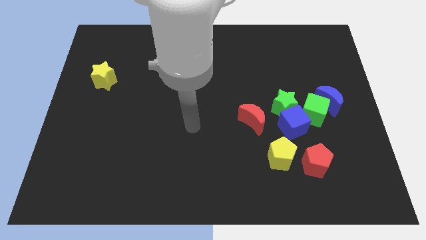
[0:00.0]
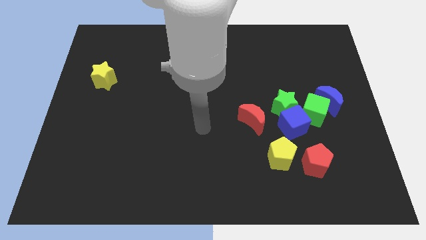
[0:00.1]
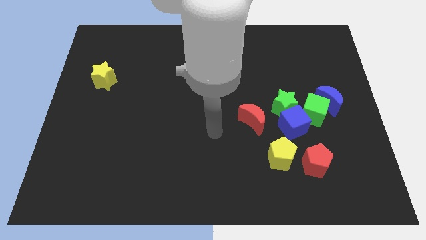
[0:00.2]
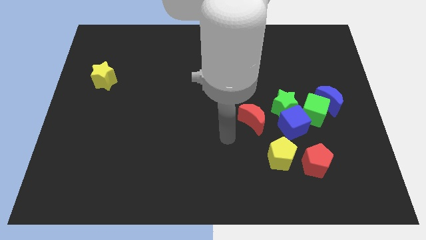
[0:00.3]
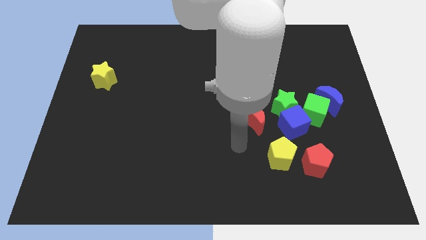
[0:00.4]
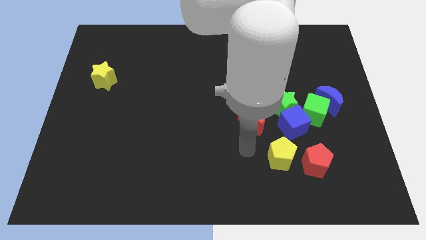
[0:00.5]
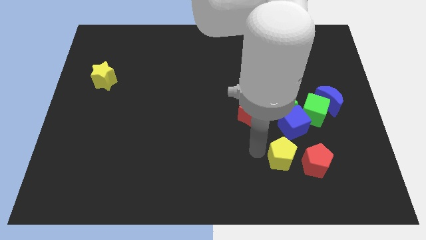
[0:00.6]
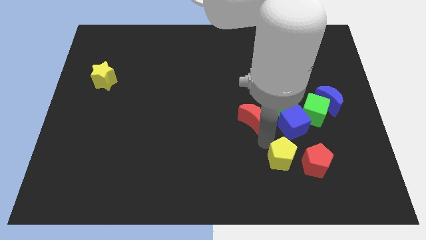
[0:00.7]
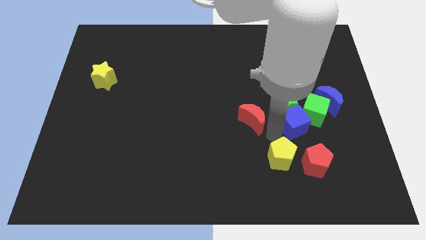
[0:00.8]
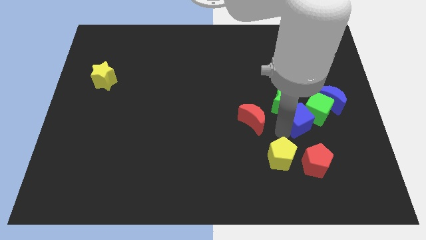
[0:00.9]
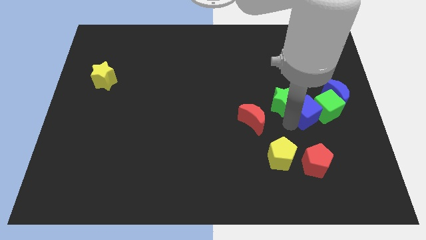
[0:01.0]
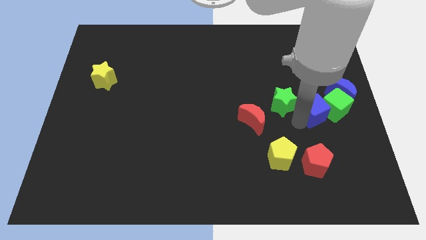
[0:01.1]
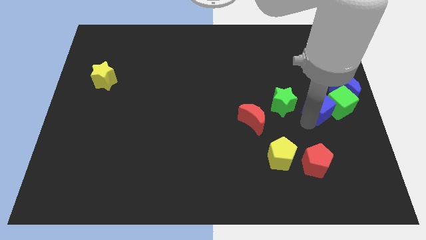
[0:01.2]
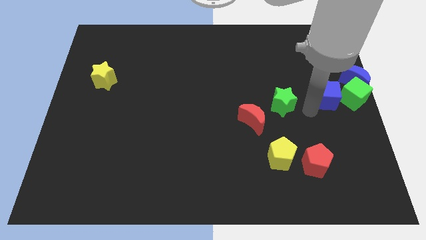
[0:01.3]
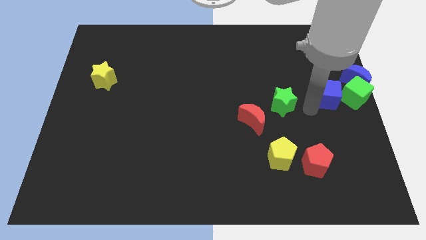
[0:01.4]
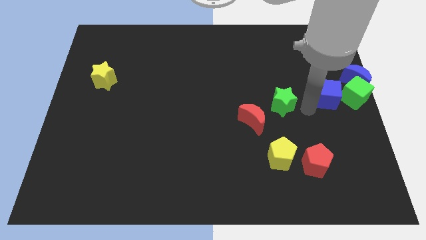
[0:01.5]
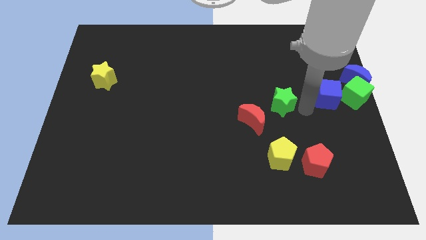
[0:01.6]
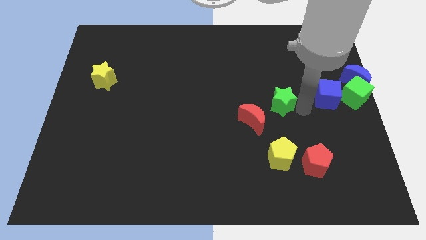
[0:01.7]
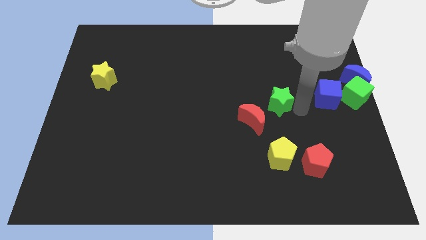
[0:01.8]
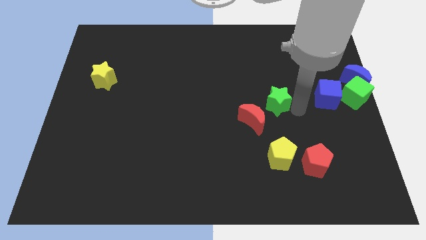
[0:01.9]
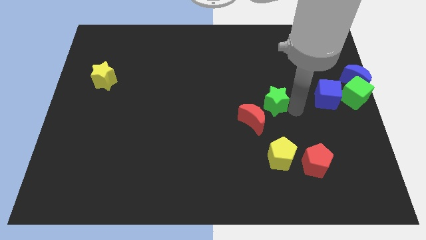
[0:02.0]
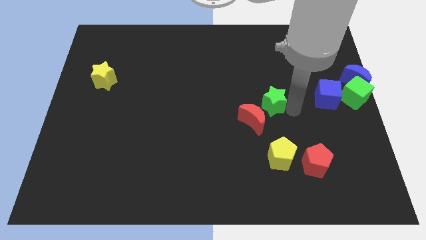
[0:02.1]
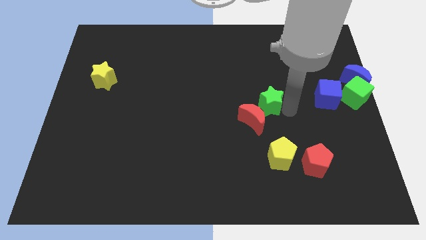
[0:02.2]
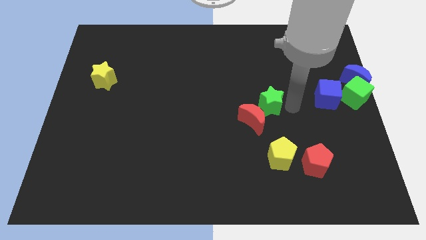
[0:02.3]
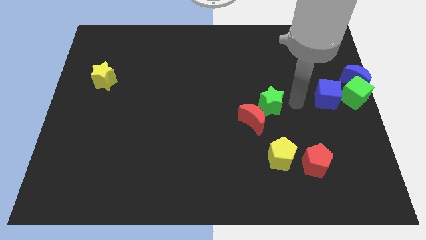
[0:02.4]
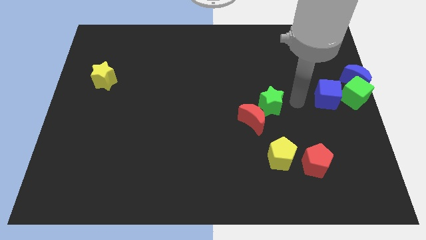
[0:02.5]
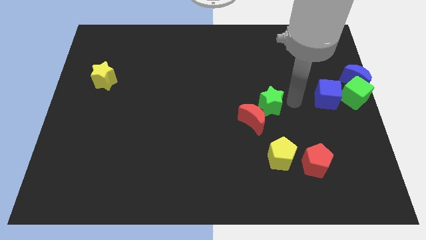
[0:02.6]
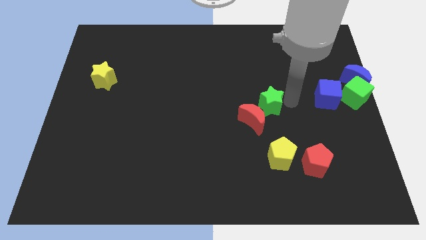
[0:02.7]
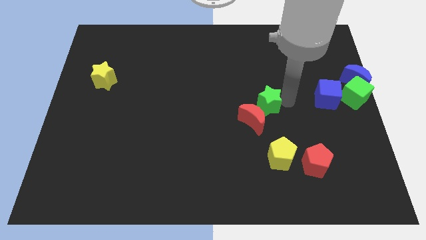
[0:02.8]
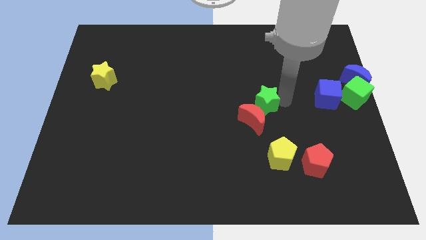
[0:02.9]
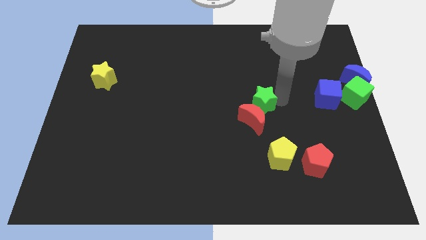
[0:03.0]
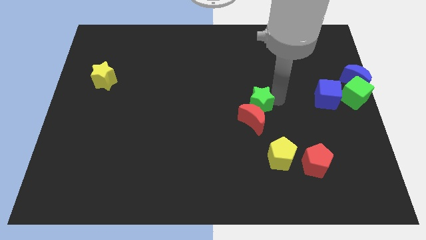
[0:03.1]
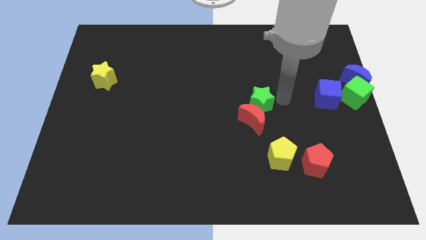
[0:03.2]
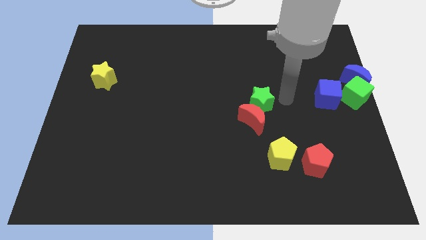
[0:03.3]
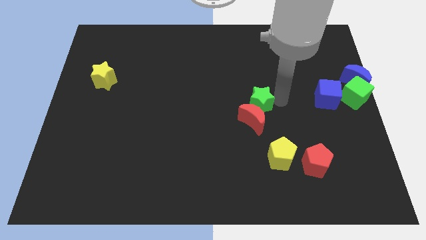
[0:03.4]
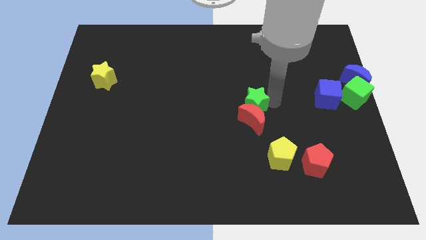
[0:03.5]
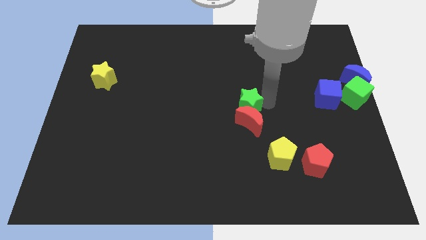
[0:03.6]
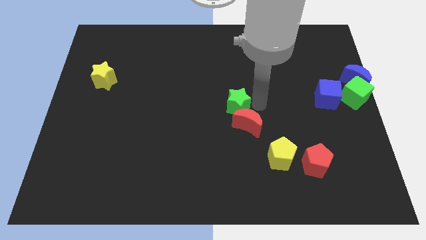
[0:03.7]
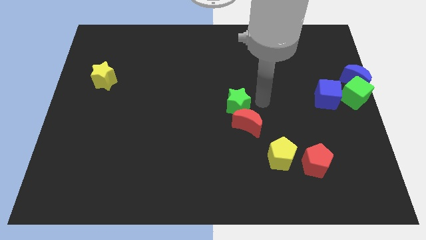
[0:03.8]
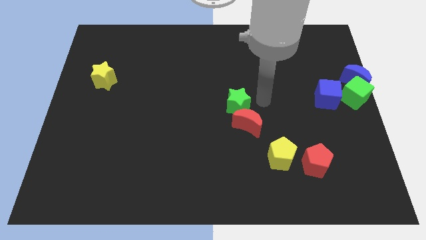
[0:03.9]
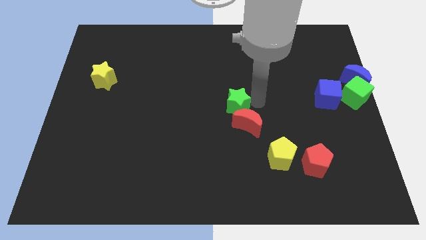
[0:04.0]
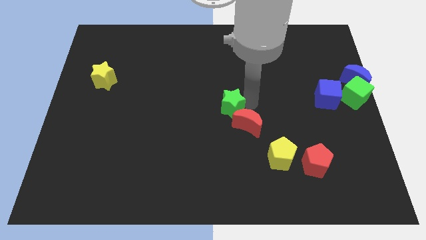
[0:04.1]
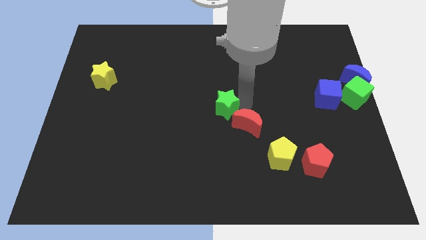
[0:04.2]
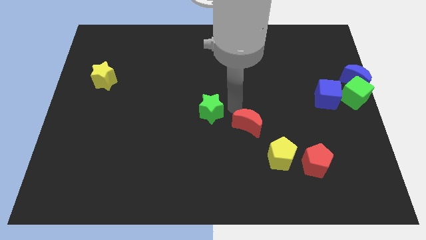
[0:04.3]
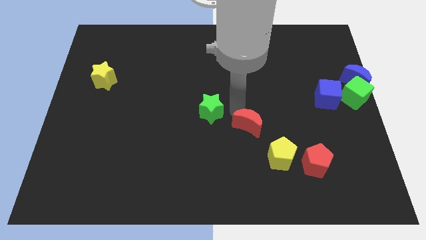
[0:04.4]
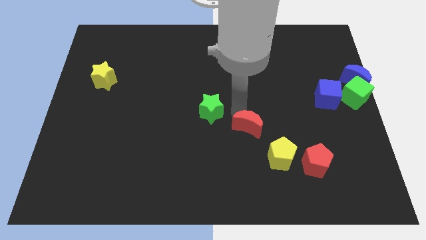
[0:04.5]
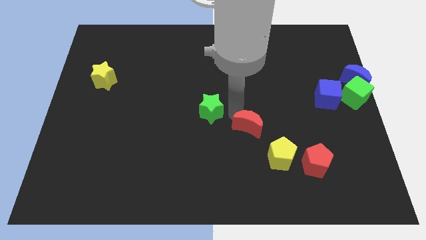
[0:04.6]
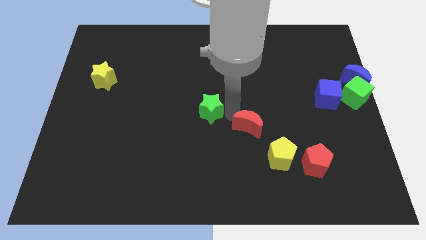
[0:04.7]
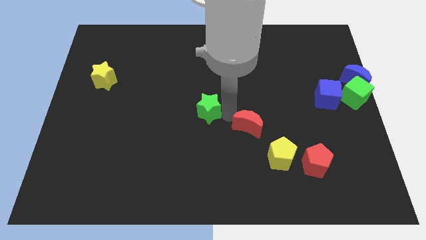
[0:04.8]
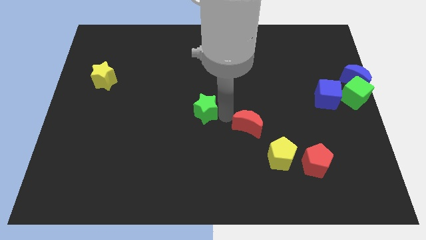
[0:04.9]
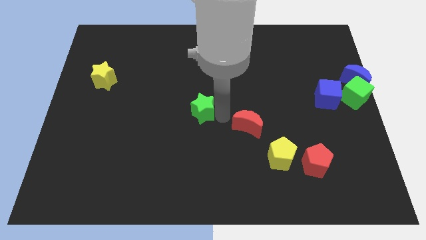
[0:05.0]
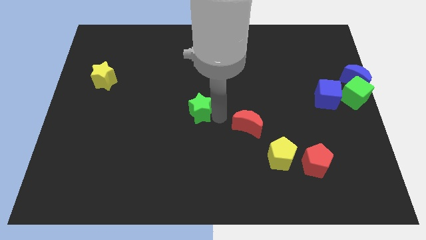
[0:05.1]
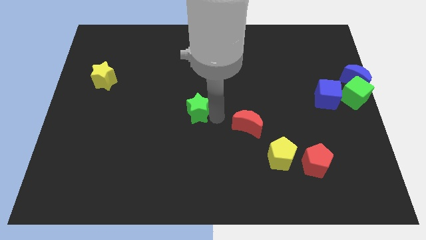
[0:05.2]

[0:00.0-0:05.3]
move the green star left

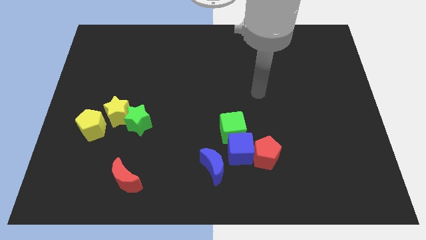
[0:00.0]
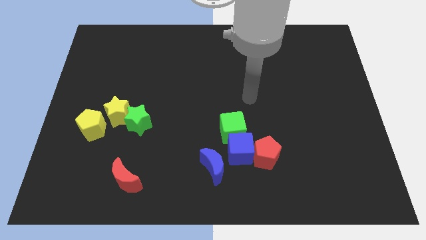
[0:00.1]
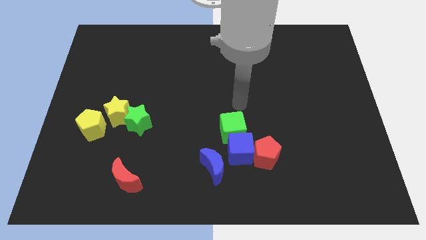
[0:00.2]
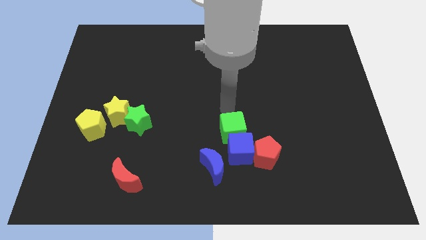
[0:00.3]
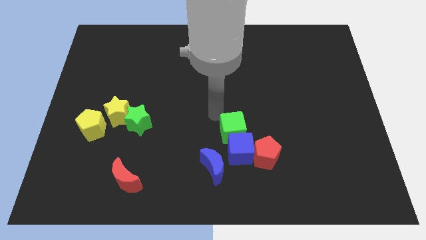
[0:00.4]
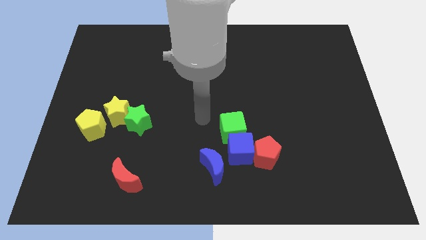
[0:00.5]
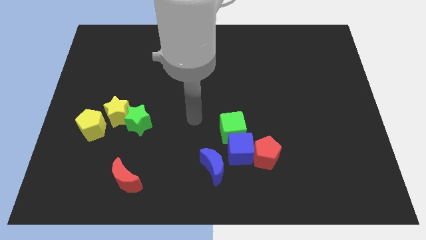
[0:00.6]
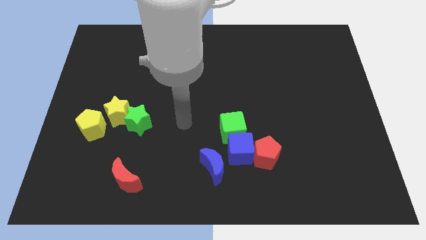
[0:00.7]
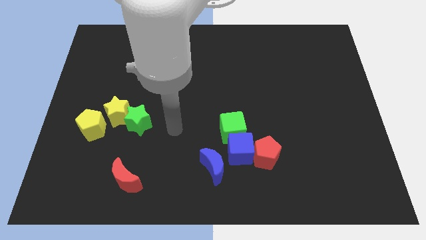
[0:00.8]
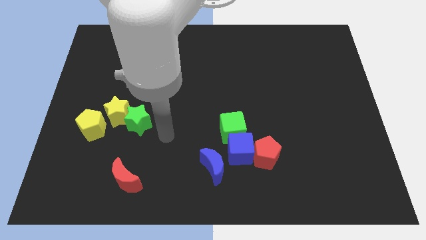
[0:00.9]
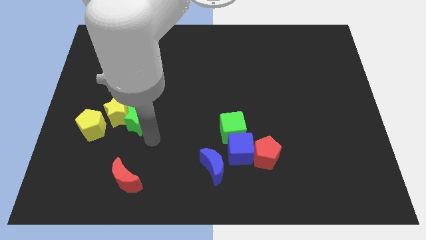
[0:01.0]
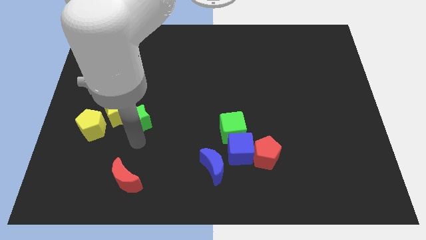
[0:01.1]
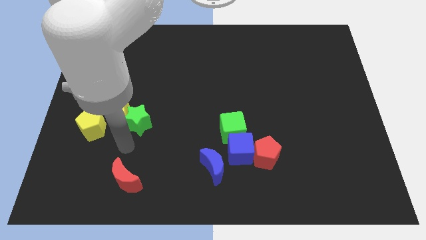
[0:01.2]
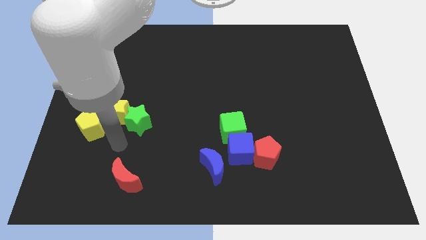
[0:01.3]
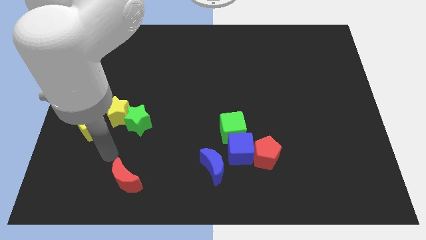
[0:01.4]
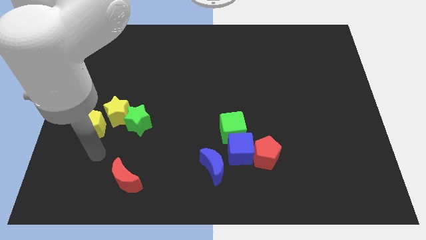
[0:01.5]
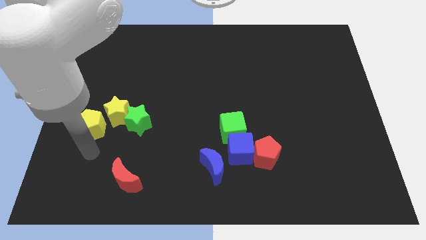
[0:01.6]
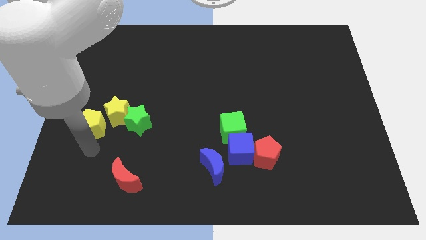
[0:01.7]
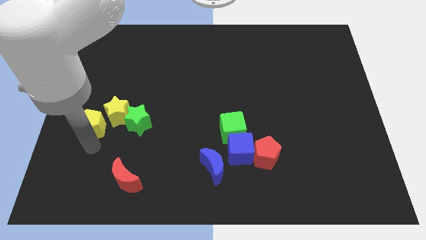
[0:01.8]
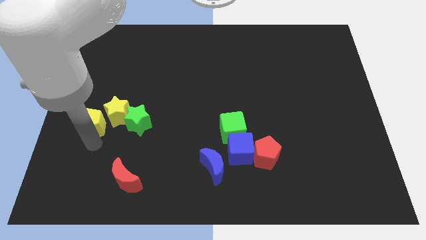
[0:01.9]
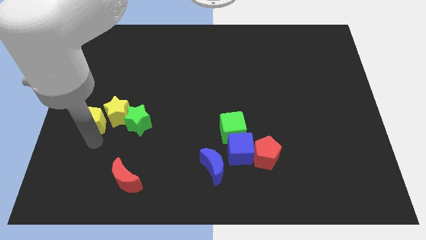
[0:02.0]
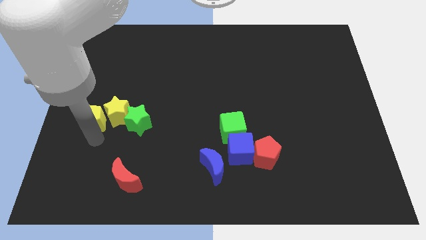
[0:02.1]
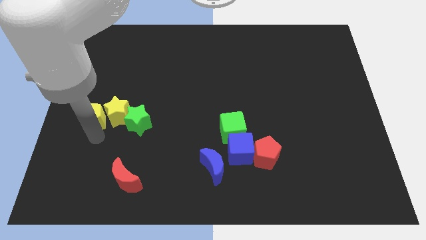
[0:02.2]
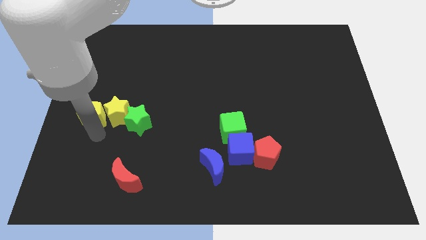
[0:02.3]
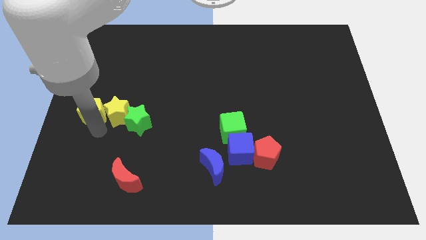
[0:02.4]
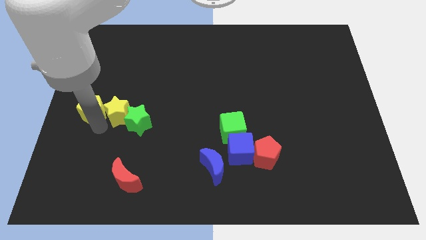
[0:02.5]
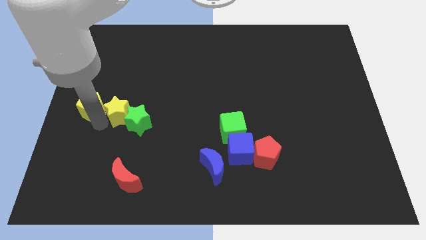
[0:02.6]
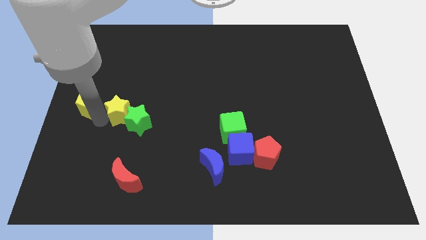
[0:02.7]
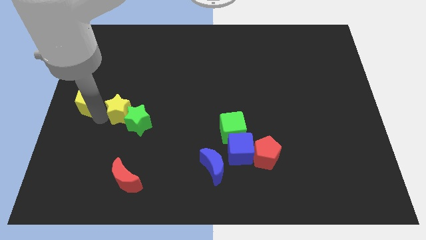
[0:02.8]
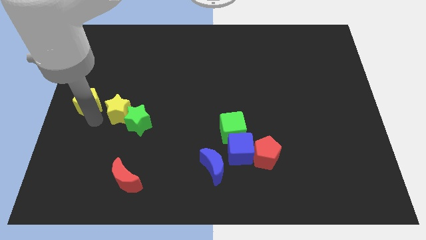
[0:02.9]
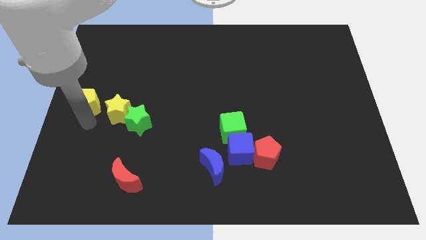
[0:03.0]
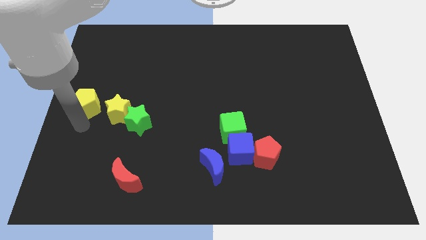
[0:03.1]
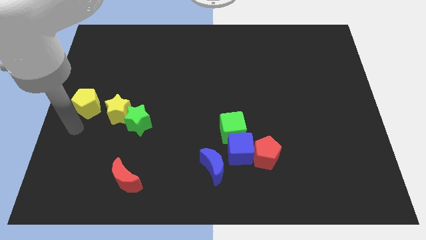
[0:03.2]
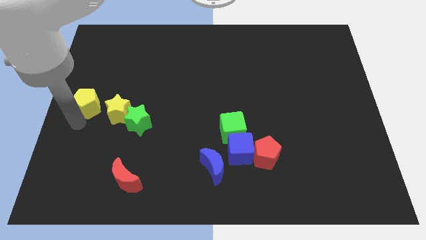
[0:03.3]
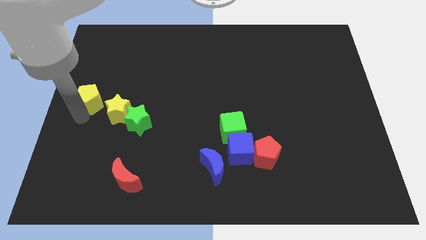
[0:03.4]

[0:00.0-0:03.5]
slide the yellow pentagon up a bit
